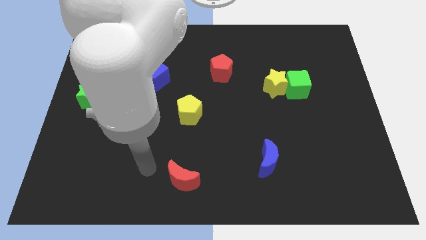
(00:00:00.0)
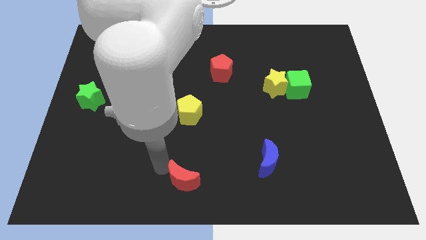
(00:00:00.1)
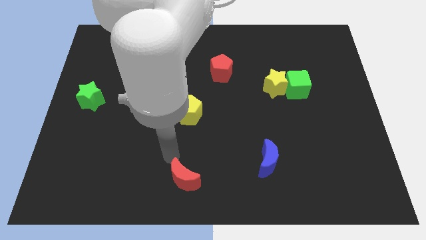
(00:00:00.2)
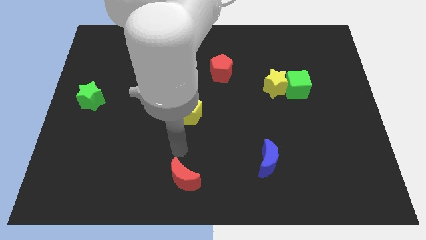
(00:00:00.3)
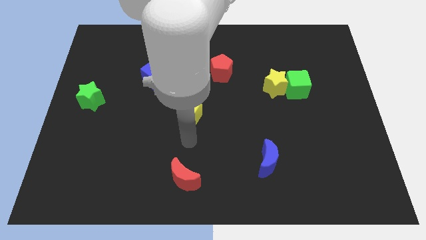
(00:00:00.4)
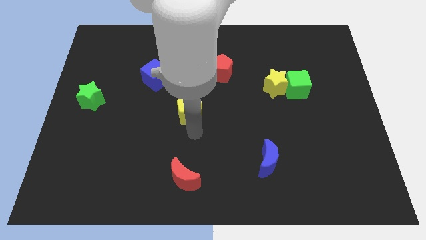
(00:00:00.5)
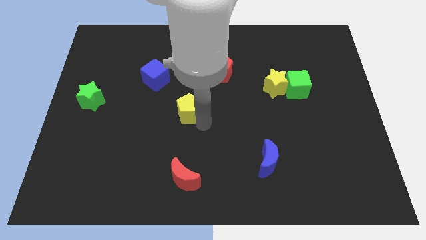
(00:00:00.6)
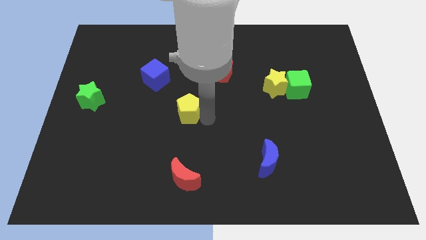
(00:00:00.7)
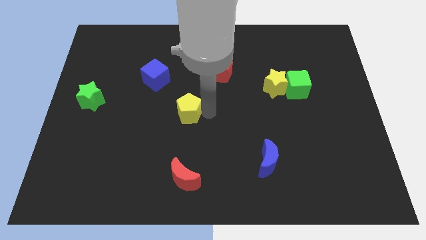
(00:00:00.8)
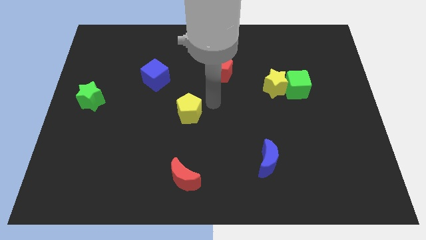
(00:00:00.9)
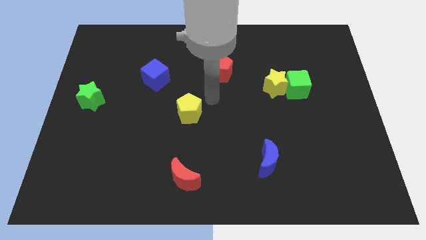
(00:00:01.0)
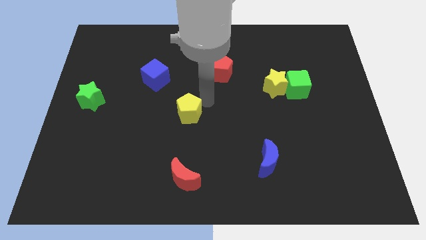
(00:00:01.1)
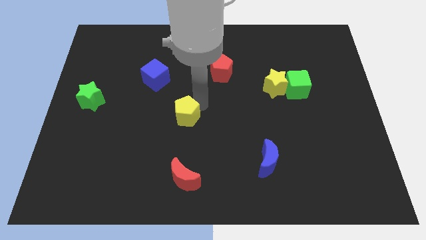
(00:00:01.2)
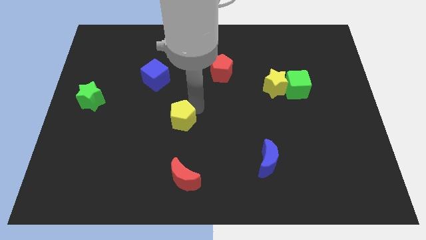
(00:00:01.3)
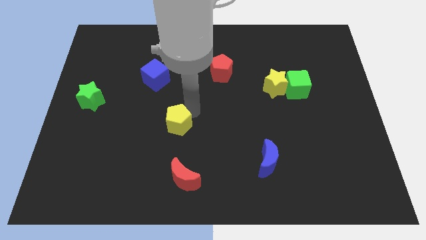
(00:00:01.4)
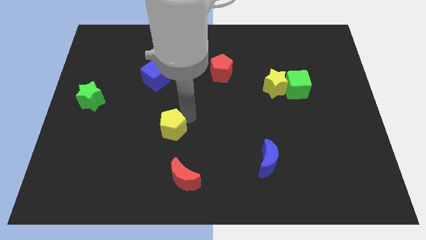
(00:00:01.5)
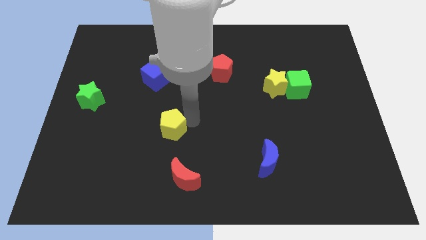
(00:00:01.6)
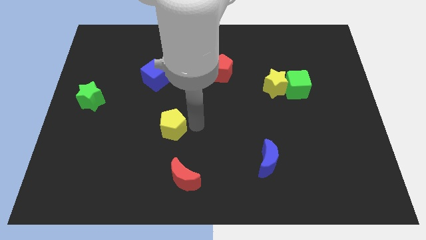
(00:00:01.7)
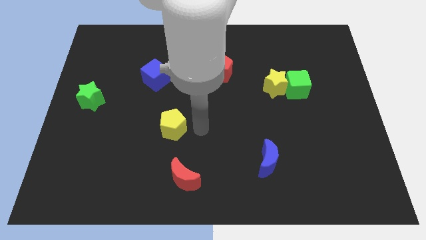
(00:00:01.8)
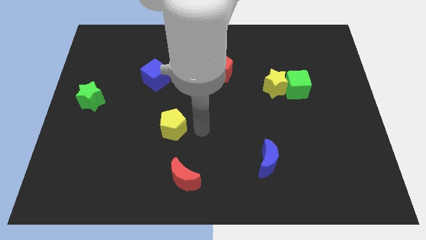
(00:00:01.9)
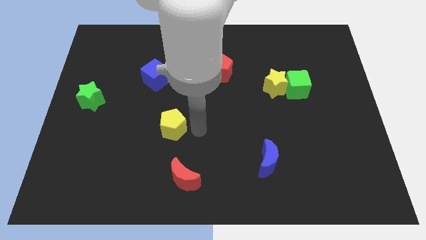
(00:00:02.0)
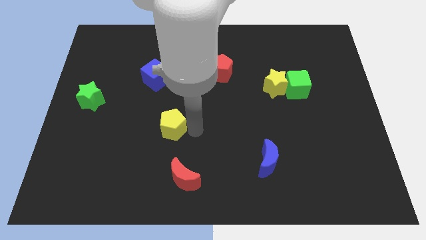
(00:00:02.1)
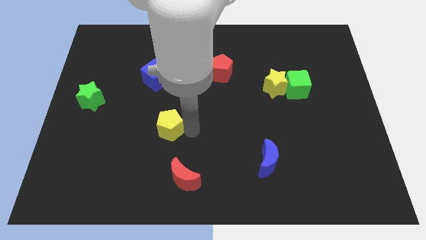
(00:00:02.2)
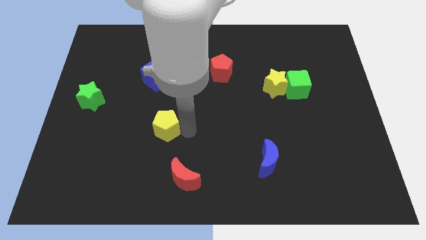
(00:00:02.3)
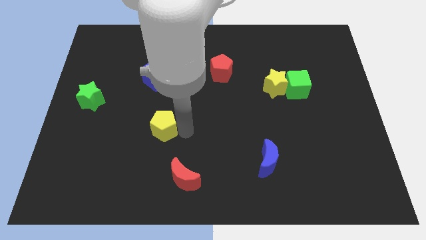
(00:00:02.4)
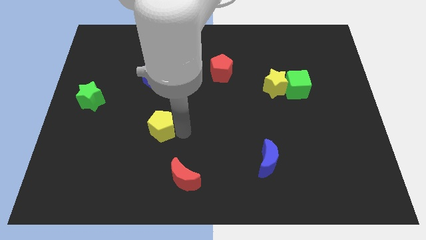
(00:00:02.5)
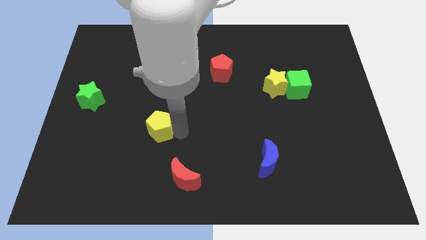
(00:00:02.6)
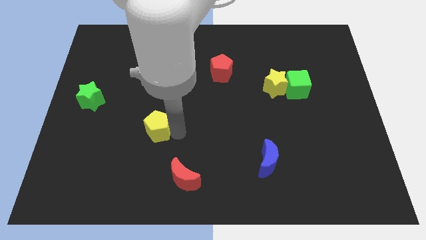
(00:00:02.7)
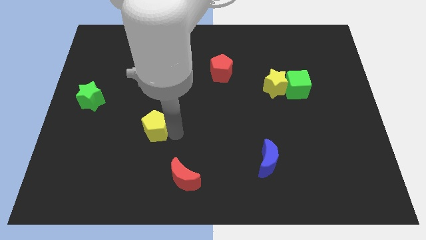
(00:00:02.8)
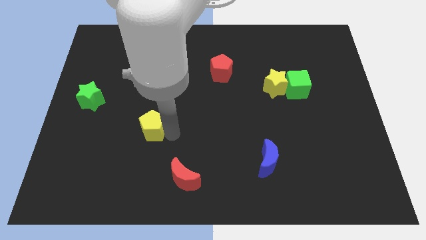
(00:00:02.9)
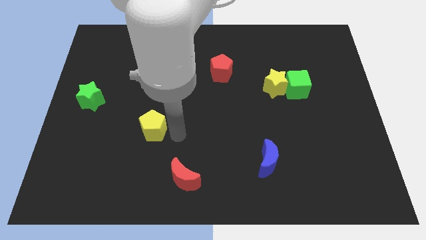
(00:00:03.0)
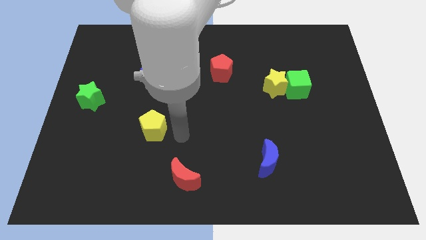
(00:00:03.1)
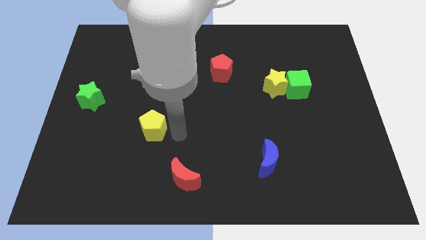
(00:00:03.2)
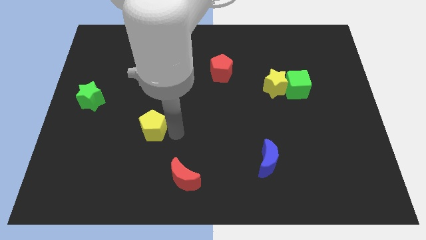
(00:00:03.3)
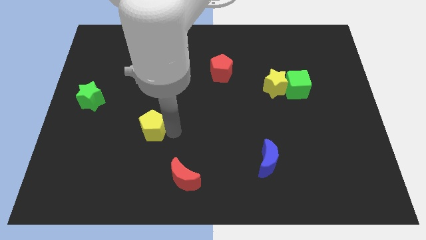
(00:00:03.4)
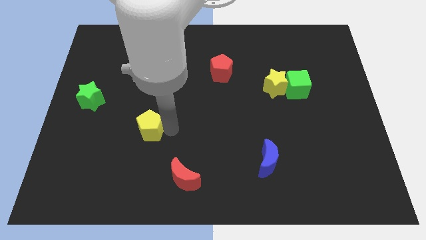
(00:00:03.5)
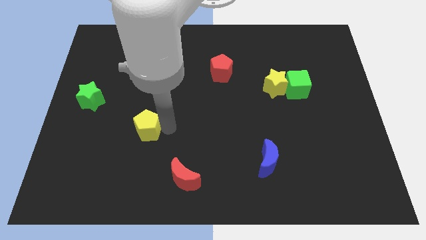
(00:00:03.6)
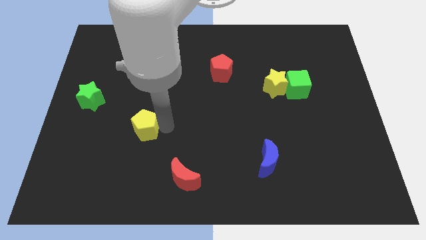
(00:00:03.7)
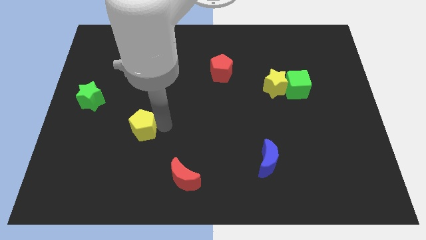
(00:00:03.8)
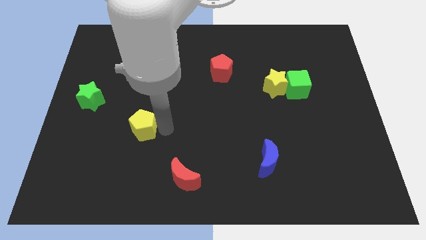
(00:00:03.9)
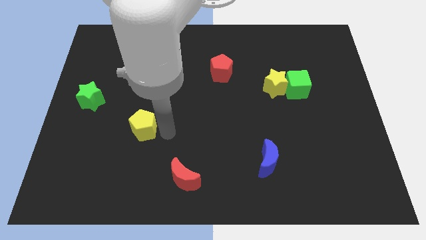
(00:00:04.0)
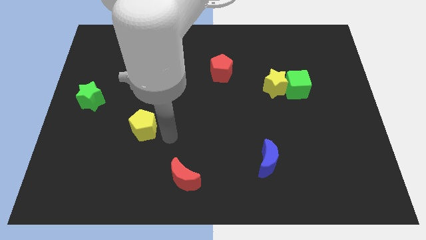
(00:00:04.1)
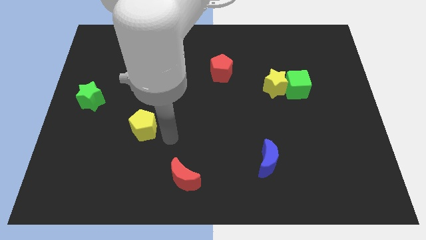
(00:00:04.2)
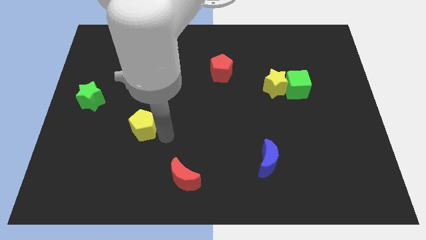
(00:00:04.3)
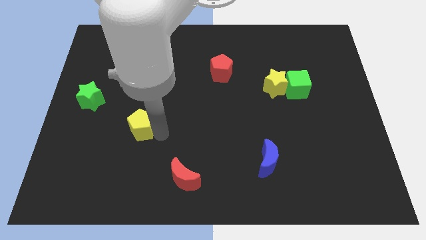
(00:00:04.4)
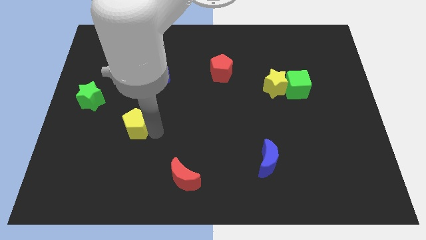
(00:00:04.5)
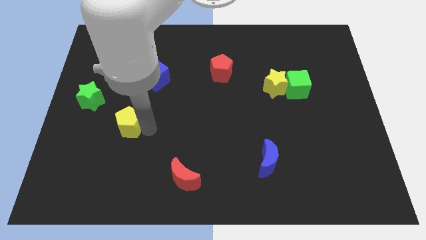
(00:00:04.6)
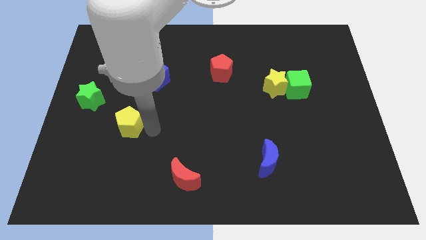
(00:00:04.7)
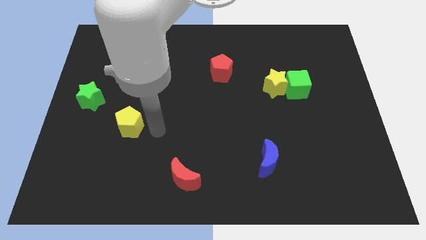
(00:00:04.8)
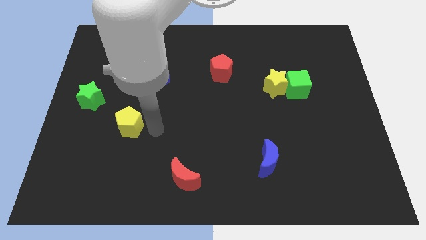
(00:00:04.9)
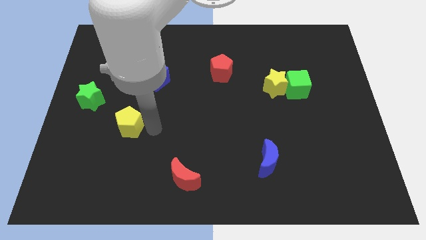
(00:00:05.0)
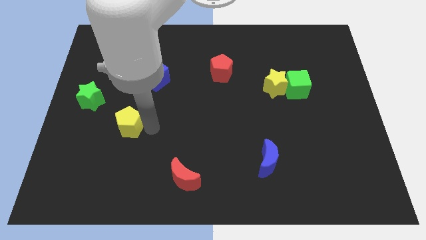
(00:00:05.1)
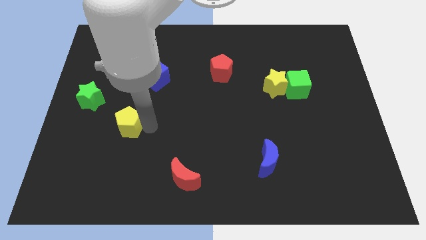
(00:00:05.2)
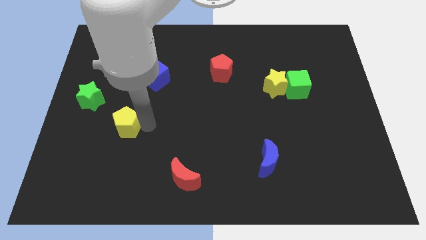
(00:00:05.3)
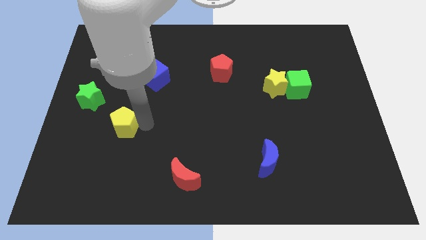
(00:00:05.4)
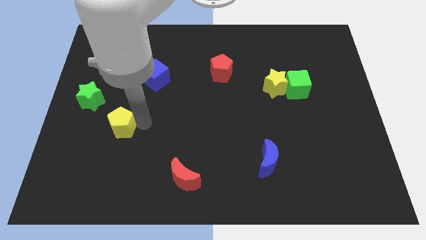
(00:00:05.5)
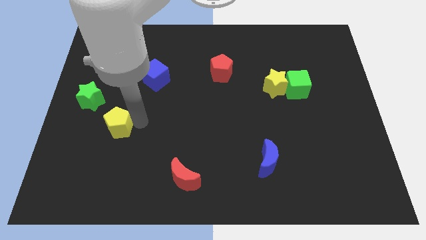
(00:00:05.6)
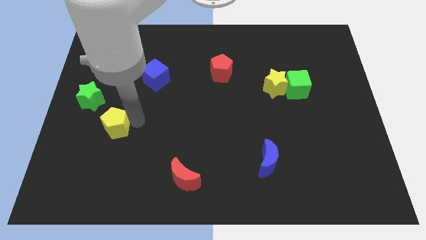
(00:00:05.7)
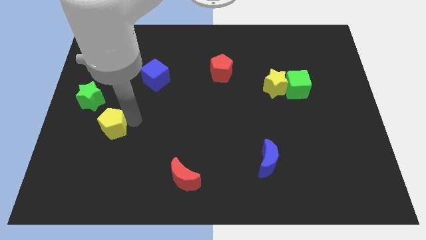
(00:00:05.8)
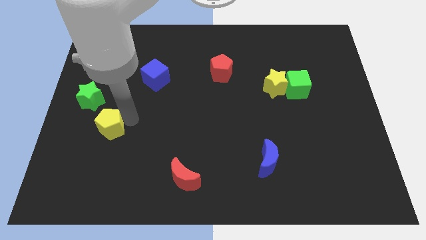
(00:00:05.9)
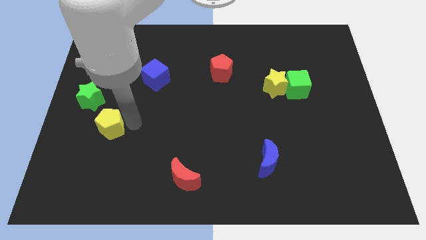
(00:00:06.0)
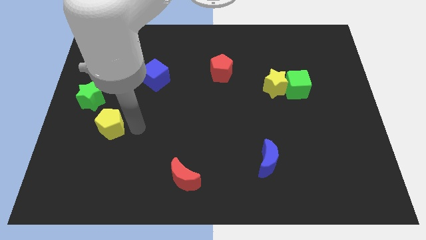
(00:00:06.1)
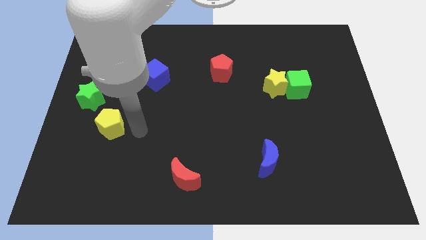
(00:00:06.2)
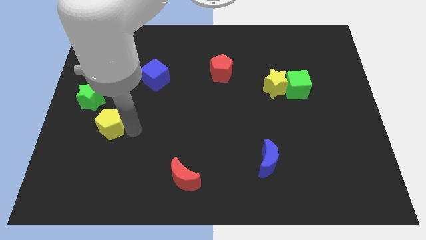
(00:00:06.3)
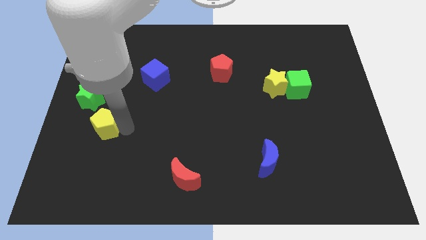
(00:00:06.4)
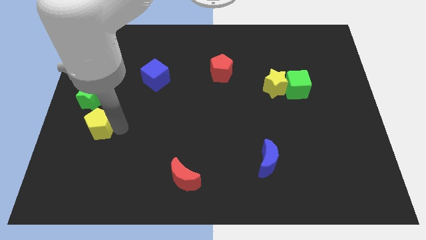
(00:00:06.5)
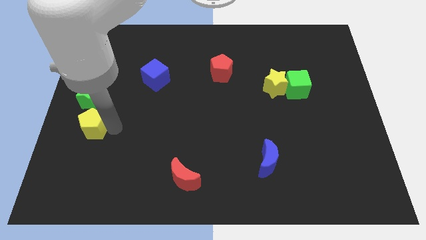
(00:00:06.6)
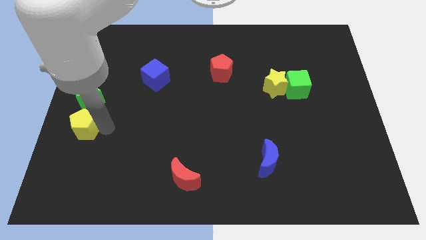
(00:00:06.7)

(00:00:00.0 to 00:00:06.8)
put the yellow pentagon to the left side of the board

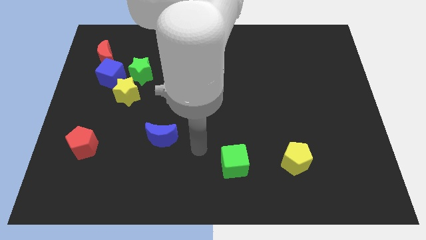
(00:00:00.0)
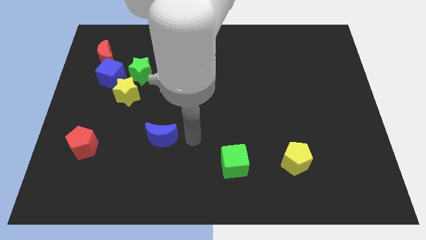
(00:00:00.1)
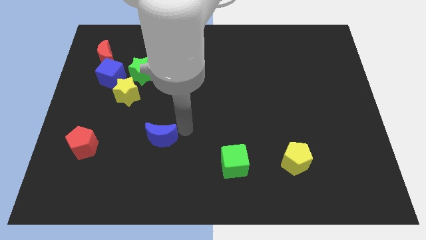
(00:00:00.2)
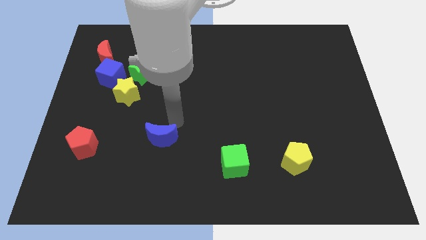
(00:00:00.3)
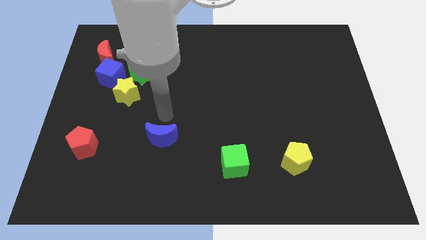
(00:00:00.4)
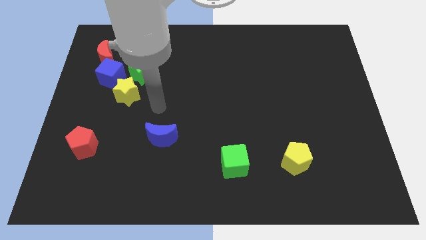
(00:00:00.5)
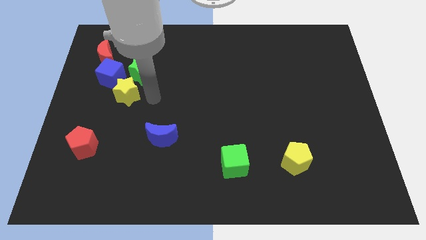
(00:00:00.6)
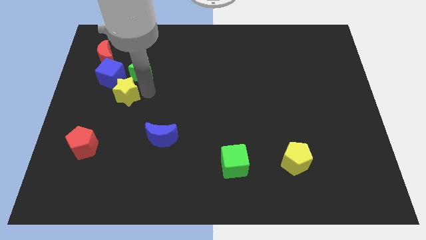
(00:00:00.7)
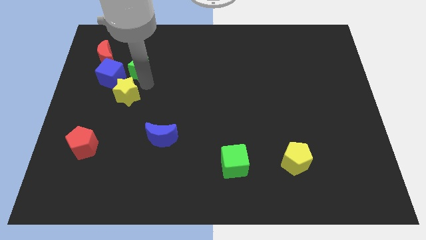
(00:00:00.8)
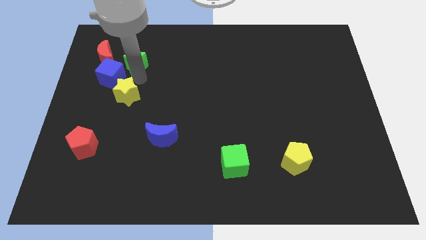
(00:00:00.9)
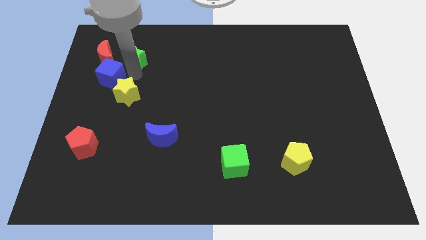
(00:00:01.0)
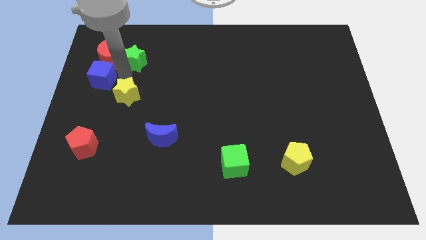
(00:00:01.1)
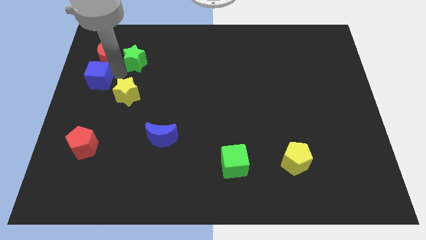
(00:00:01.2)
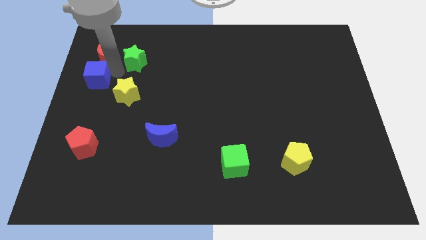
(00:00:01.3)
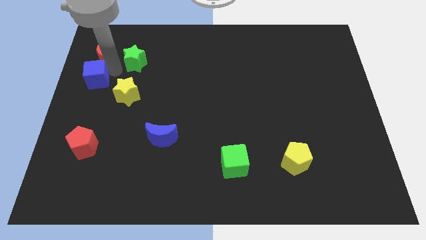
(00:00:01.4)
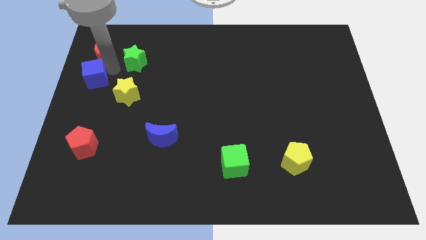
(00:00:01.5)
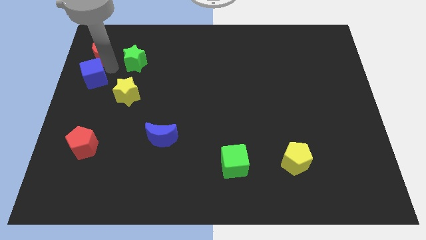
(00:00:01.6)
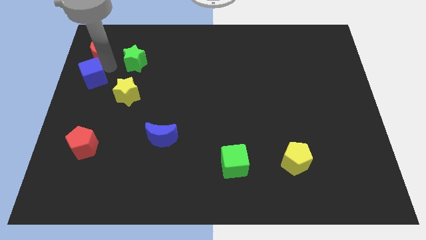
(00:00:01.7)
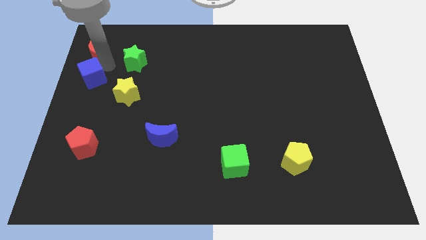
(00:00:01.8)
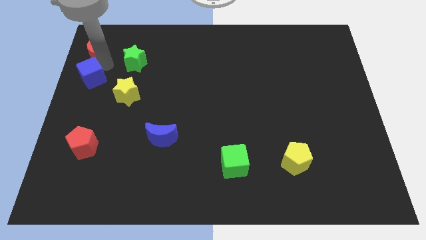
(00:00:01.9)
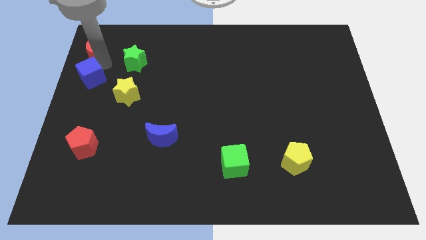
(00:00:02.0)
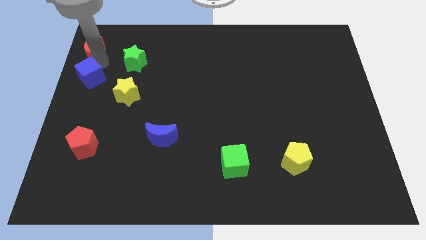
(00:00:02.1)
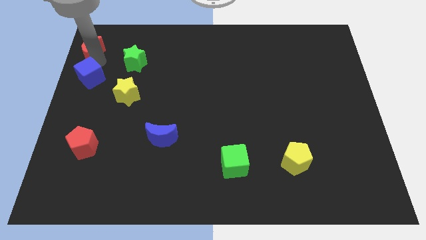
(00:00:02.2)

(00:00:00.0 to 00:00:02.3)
slide the red moon to the top left
